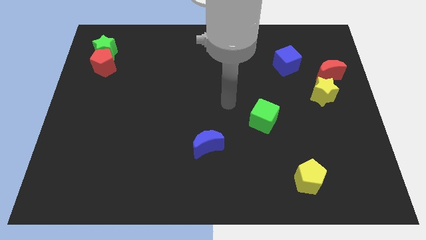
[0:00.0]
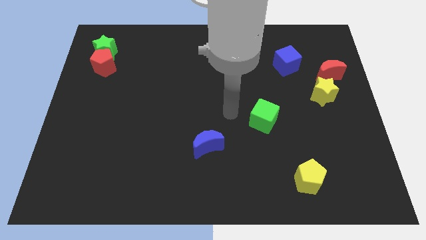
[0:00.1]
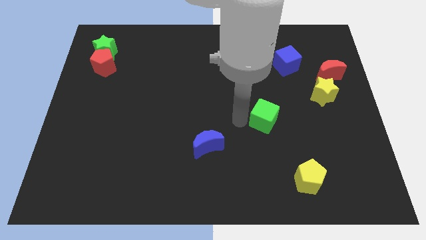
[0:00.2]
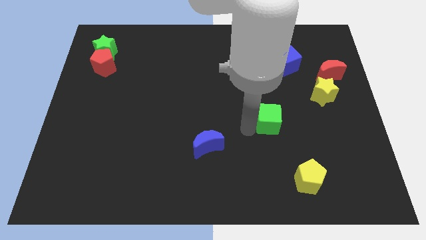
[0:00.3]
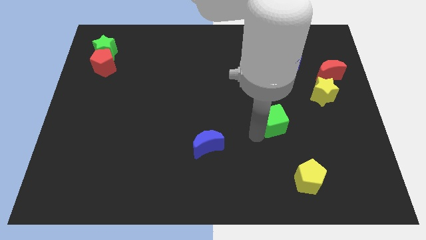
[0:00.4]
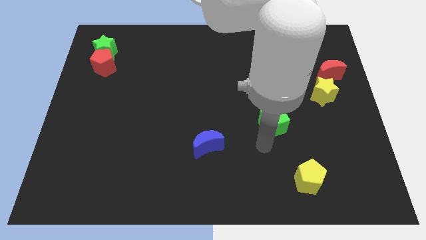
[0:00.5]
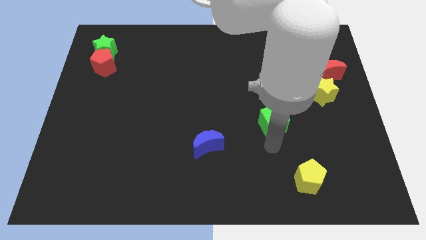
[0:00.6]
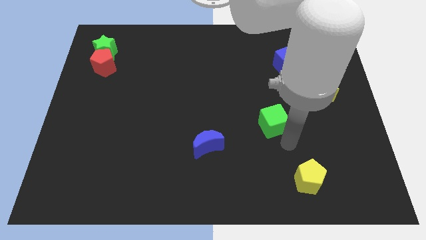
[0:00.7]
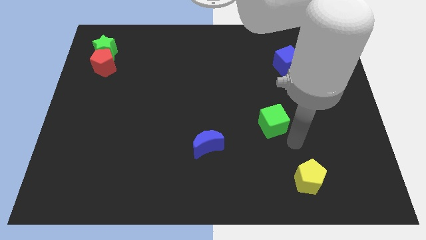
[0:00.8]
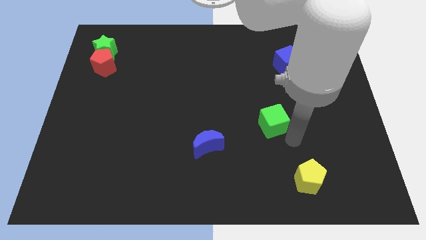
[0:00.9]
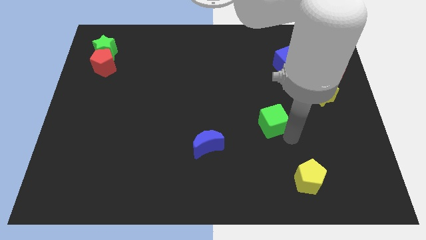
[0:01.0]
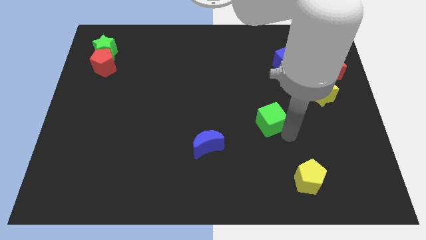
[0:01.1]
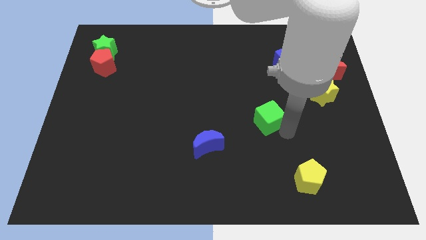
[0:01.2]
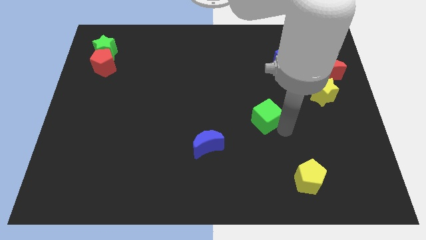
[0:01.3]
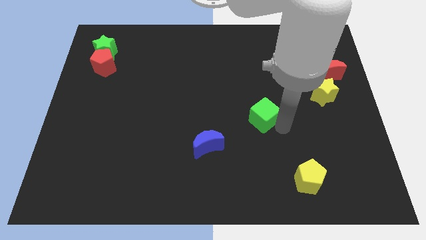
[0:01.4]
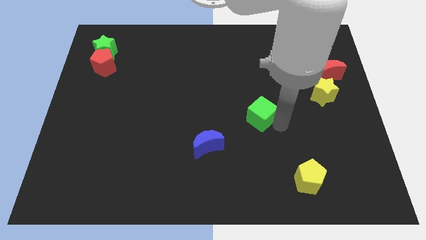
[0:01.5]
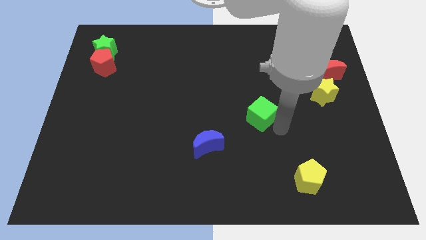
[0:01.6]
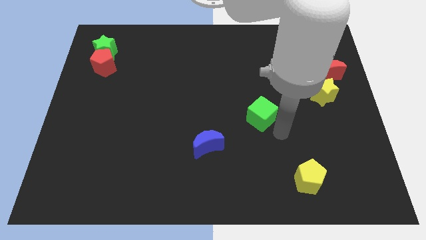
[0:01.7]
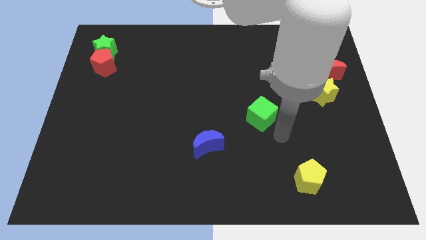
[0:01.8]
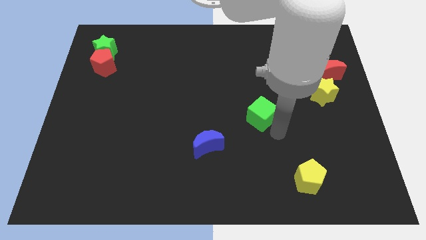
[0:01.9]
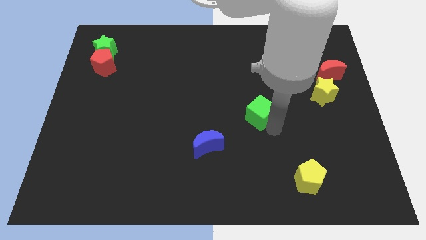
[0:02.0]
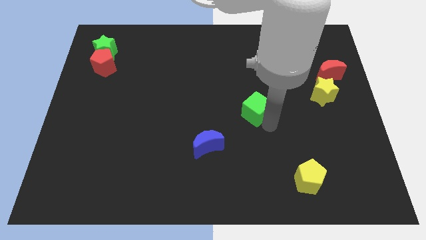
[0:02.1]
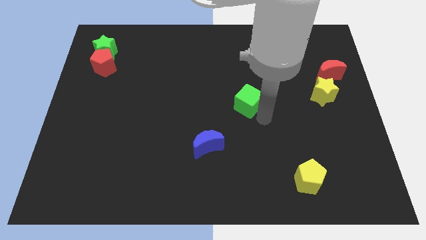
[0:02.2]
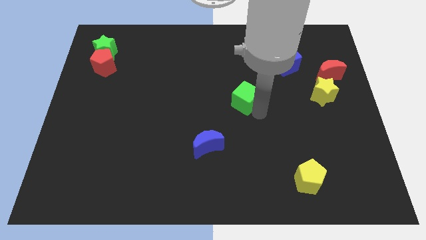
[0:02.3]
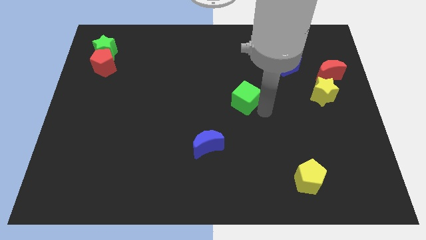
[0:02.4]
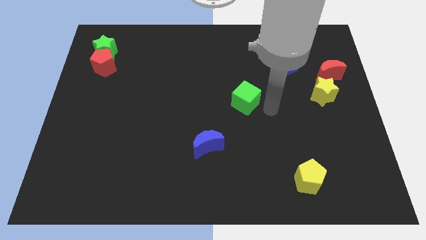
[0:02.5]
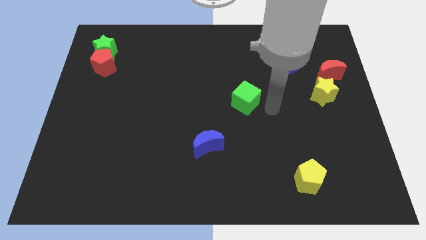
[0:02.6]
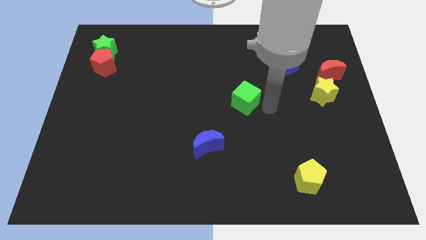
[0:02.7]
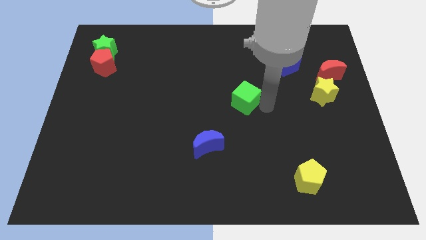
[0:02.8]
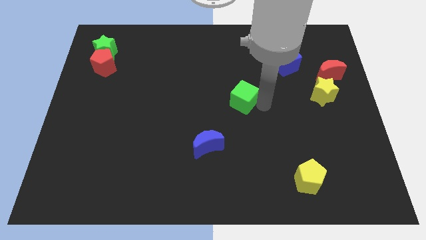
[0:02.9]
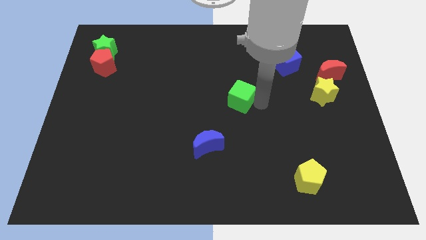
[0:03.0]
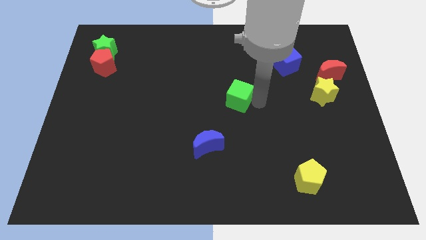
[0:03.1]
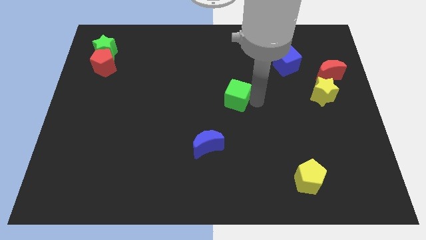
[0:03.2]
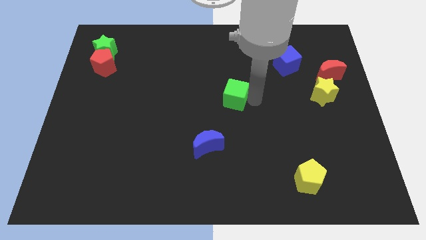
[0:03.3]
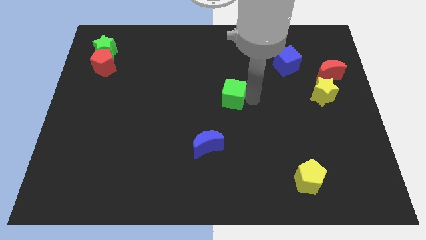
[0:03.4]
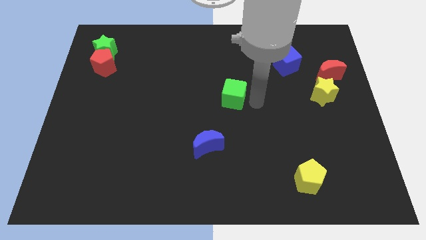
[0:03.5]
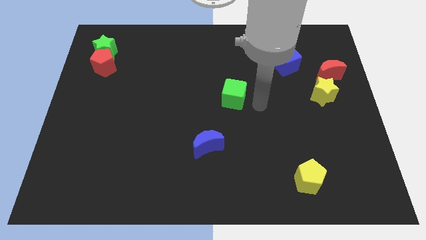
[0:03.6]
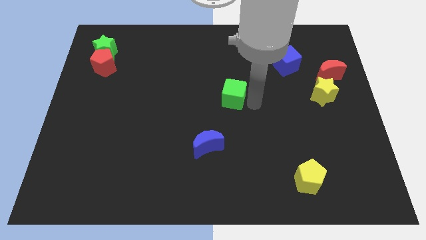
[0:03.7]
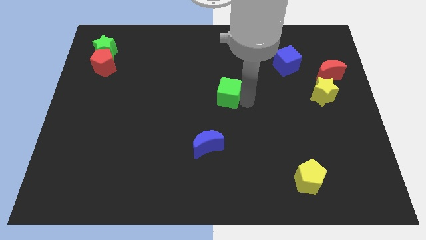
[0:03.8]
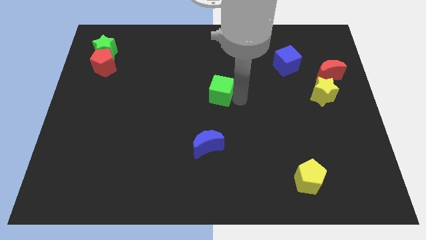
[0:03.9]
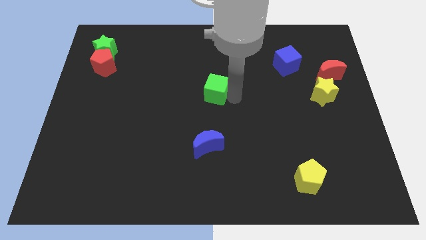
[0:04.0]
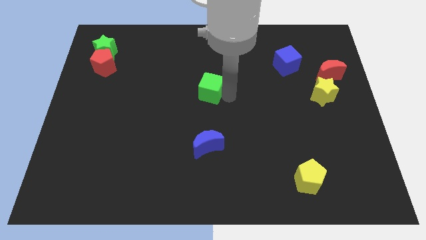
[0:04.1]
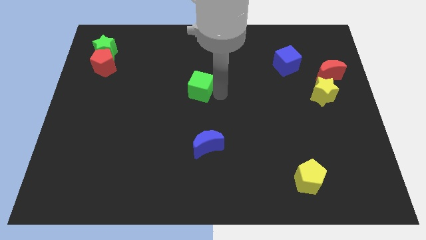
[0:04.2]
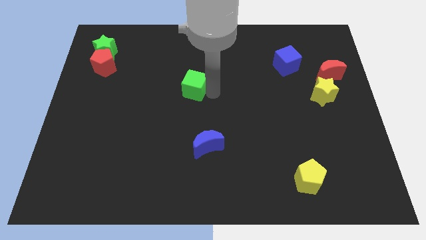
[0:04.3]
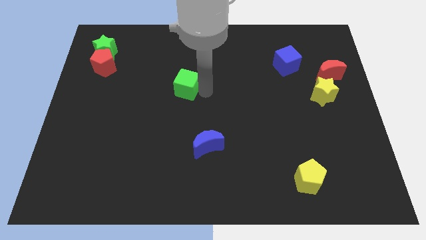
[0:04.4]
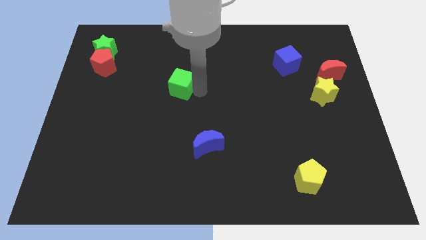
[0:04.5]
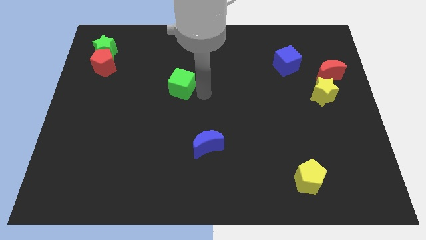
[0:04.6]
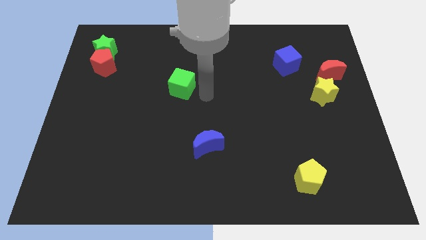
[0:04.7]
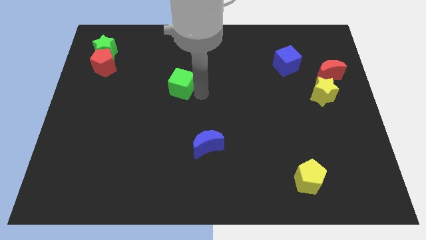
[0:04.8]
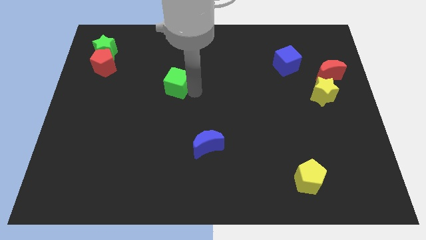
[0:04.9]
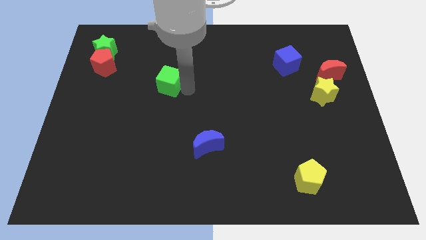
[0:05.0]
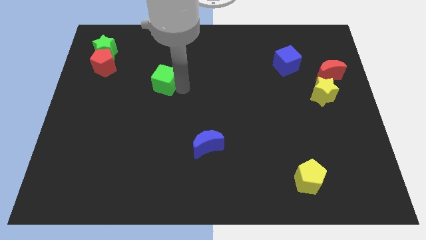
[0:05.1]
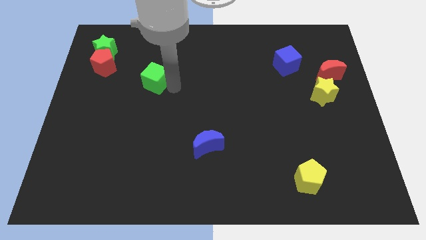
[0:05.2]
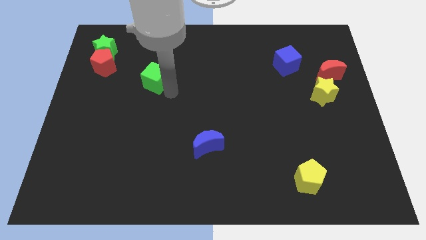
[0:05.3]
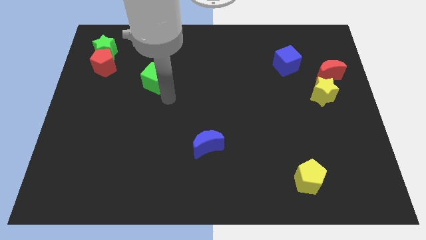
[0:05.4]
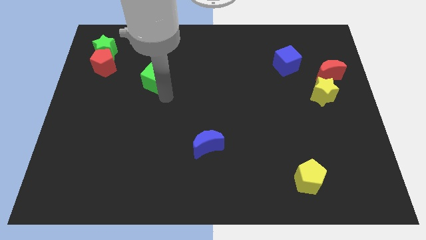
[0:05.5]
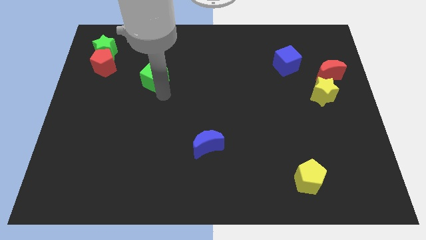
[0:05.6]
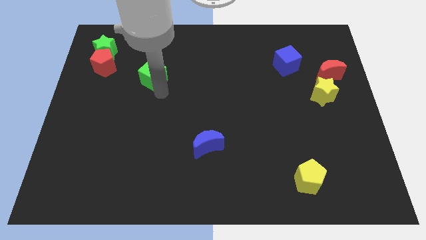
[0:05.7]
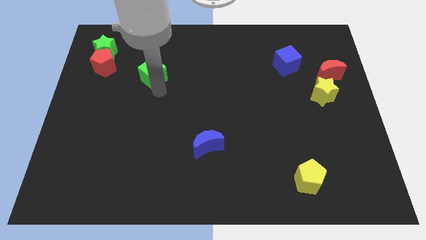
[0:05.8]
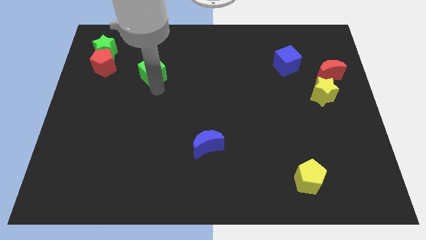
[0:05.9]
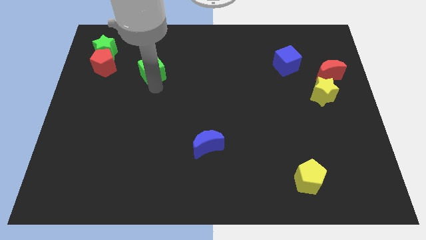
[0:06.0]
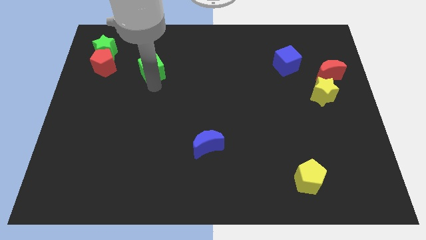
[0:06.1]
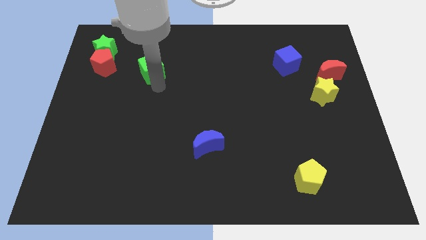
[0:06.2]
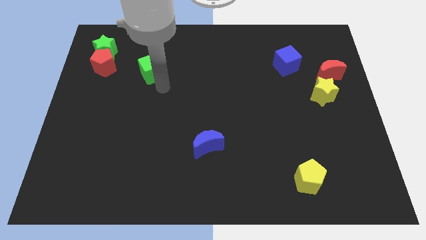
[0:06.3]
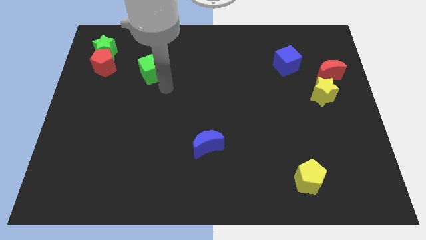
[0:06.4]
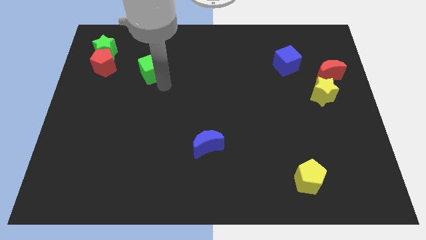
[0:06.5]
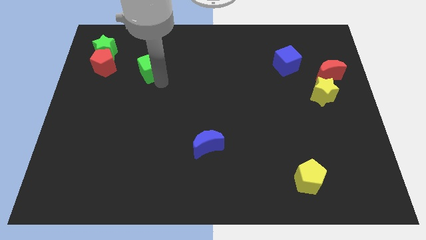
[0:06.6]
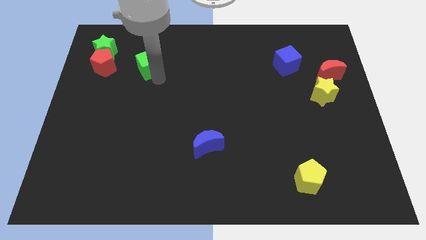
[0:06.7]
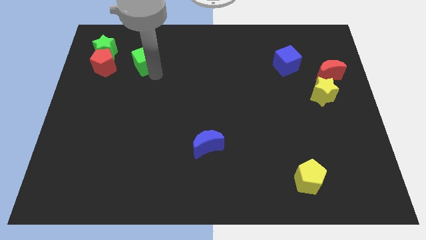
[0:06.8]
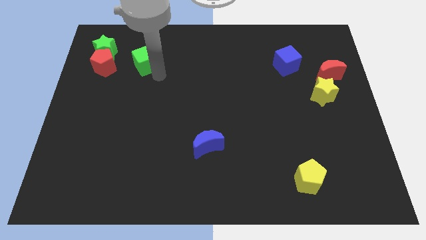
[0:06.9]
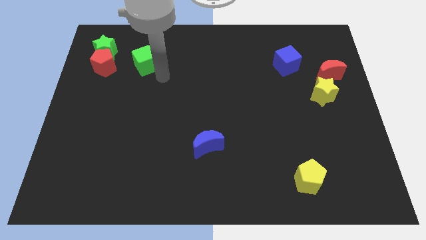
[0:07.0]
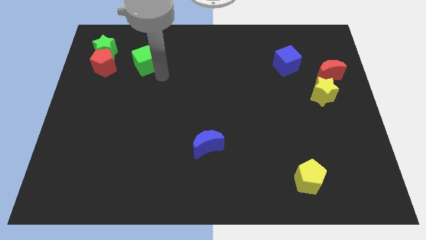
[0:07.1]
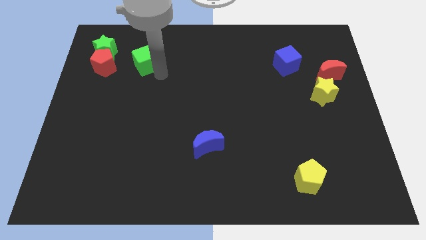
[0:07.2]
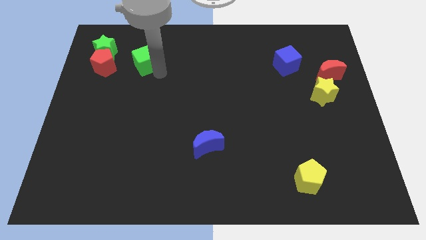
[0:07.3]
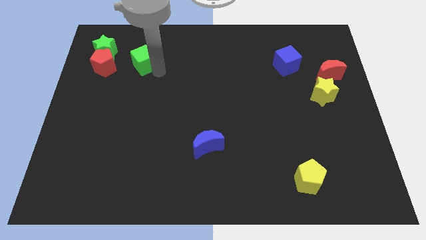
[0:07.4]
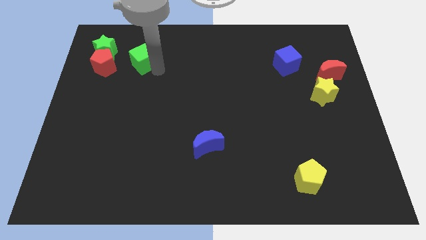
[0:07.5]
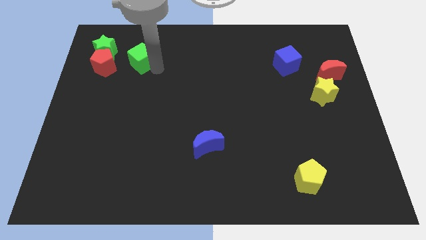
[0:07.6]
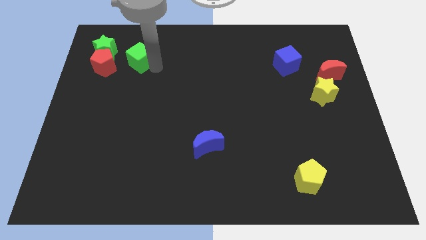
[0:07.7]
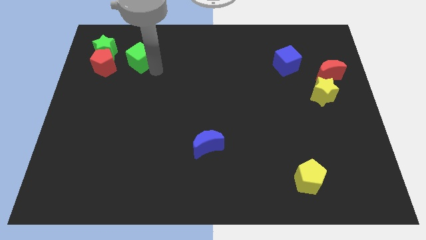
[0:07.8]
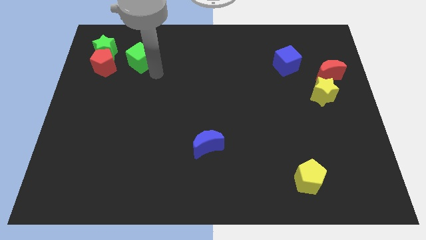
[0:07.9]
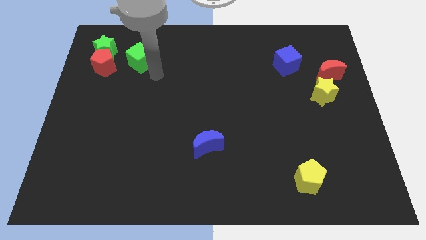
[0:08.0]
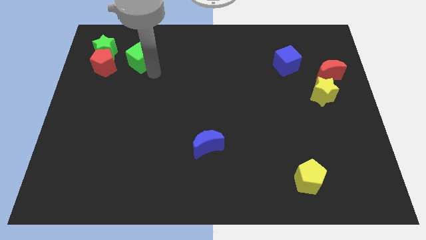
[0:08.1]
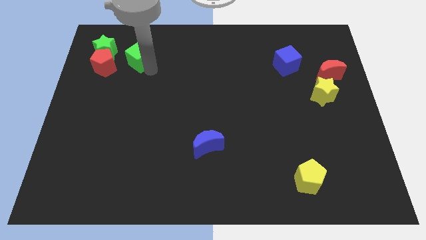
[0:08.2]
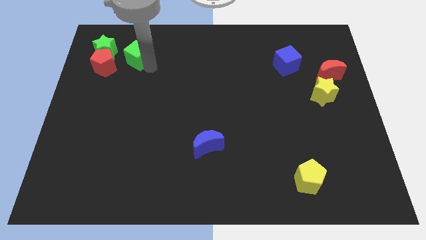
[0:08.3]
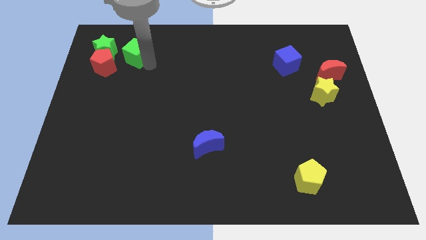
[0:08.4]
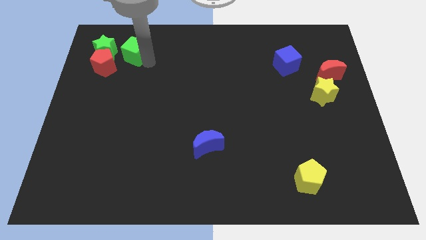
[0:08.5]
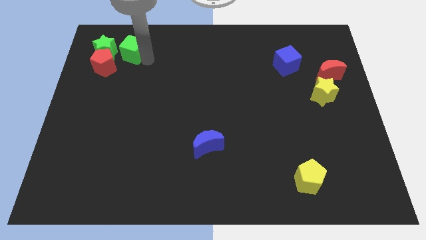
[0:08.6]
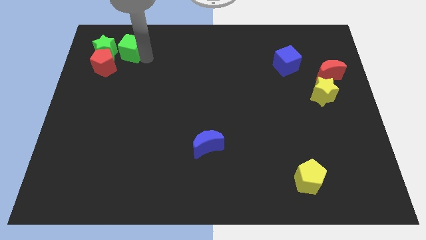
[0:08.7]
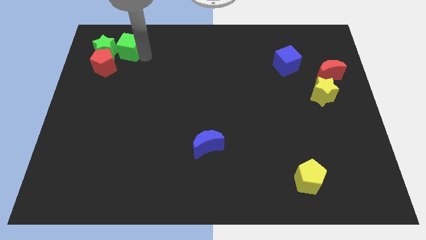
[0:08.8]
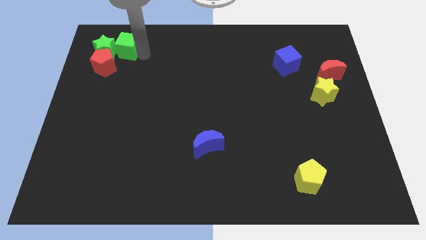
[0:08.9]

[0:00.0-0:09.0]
put the green cube towards the green star
